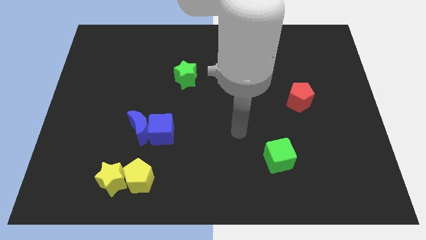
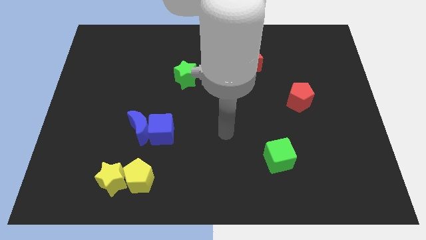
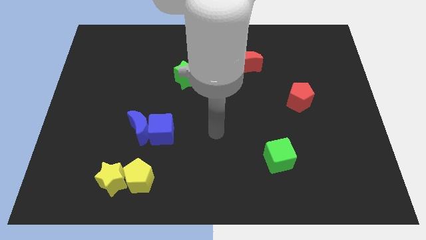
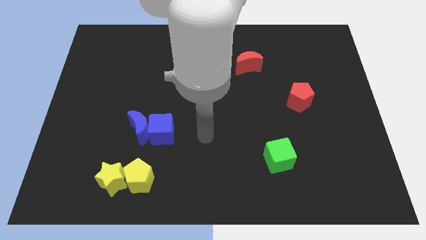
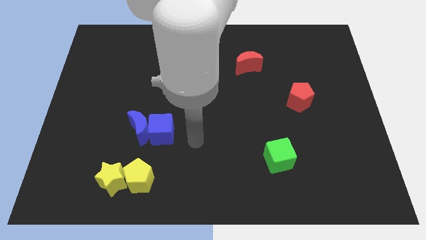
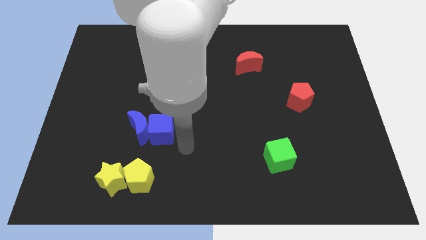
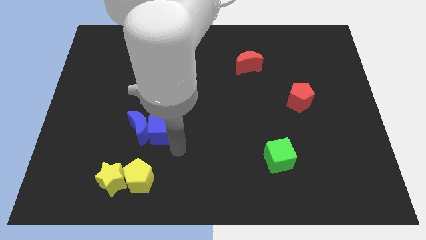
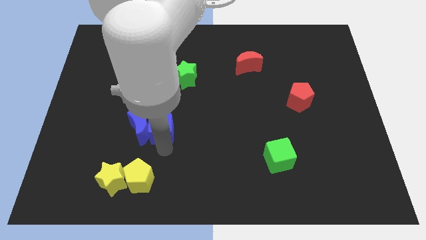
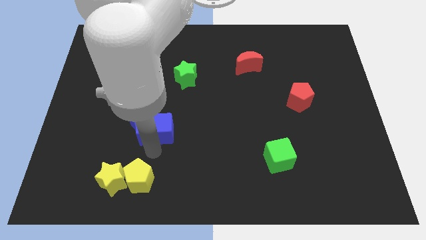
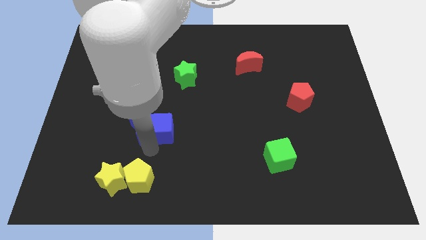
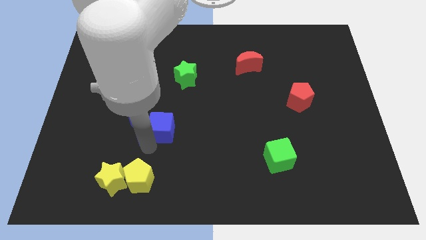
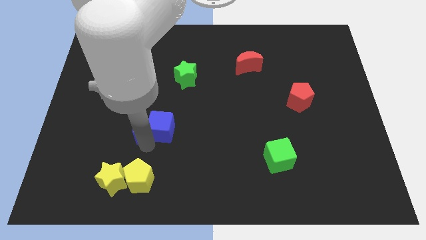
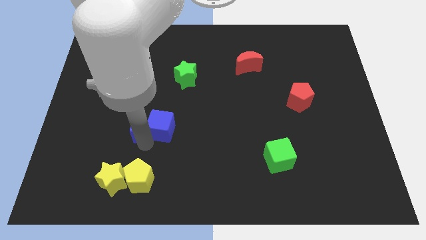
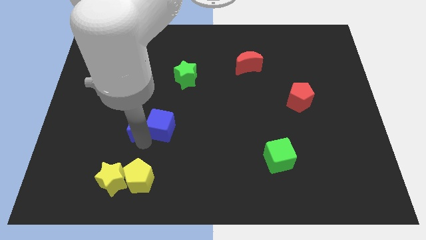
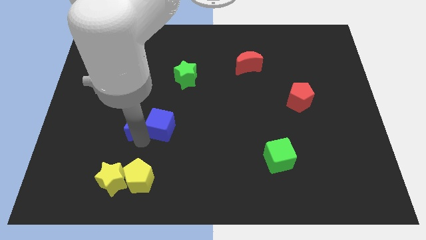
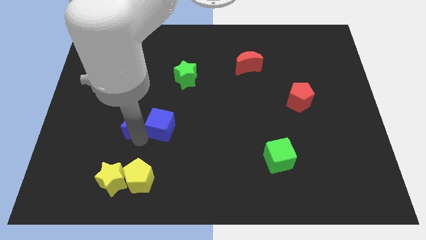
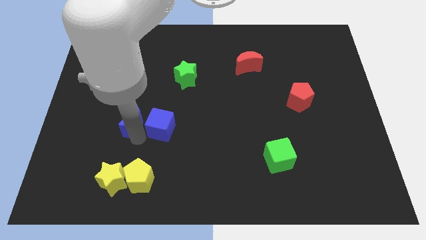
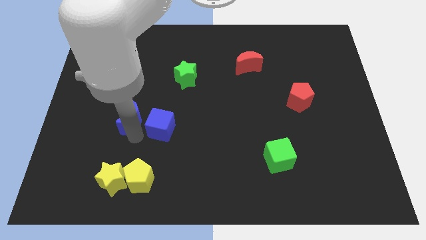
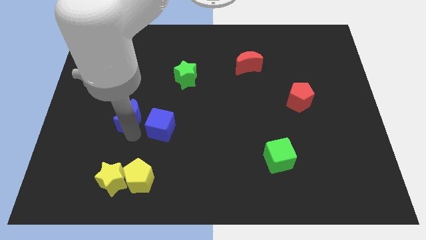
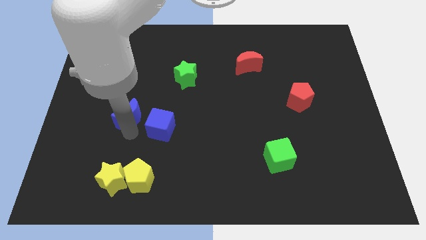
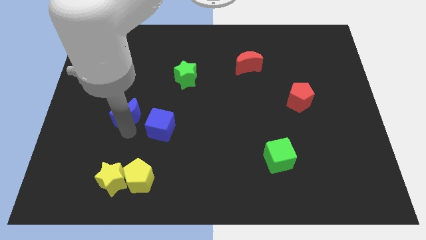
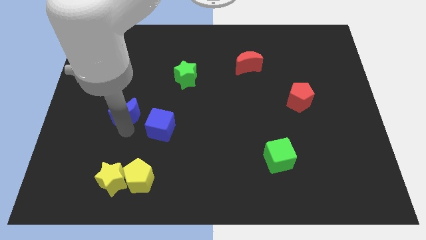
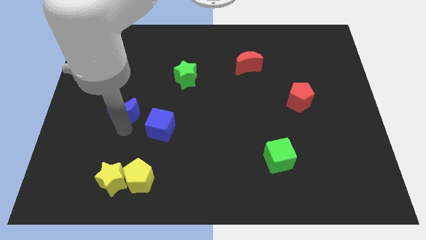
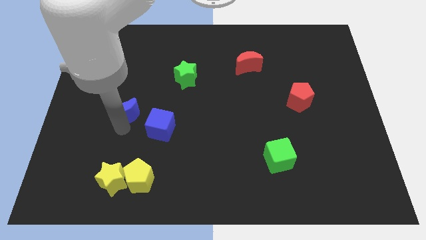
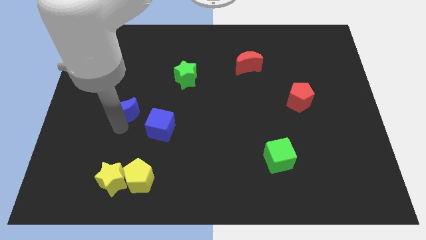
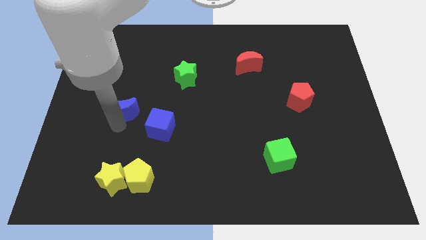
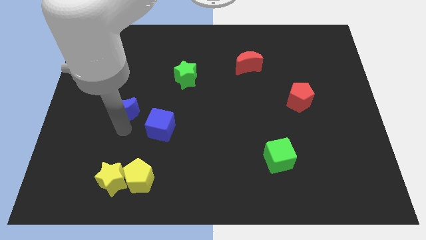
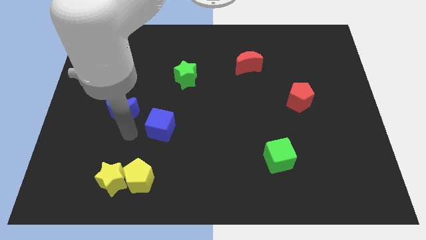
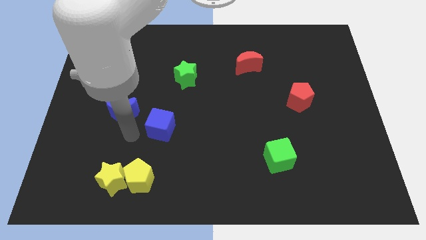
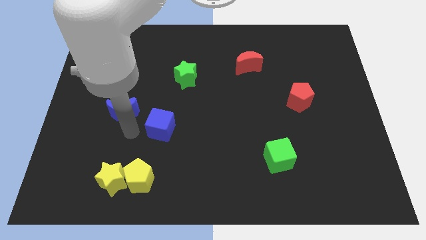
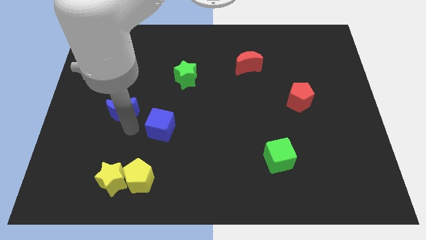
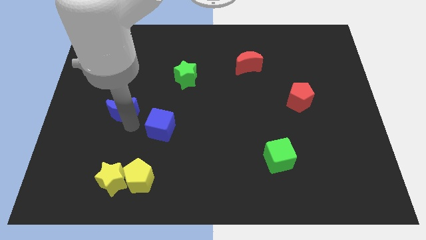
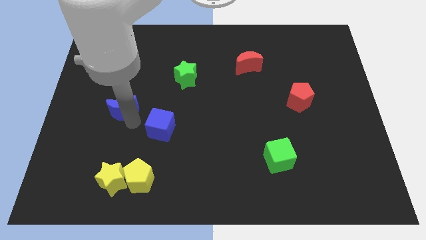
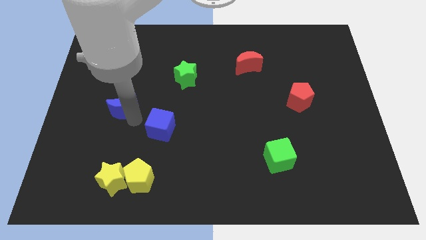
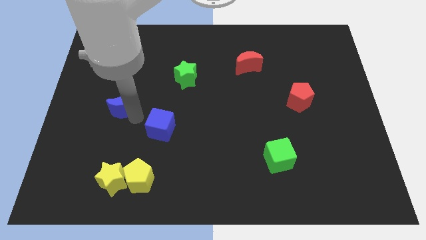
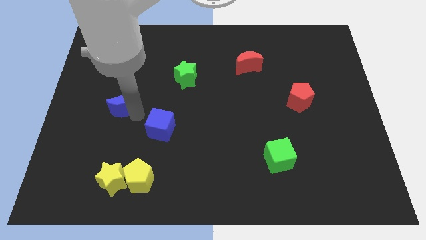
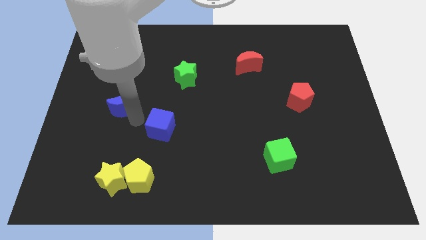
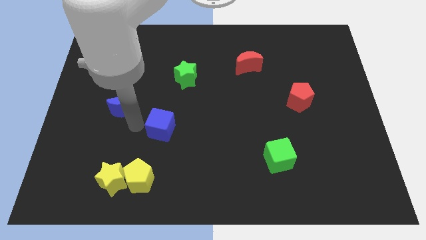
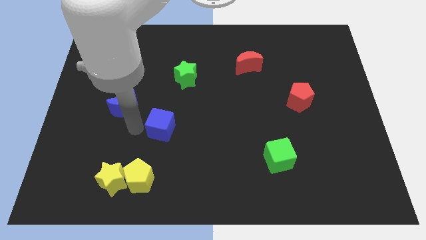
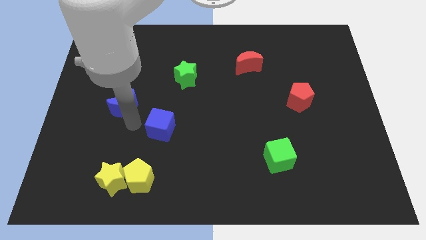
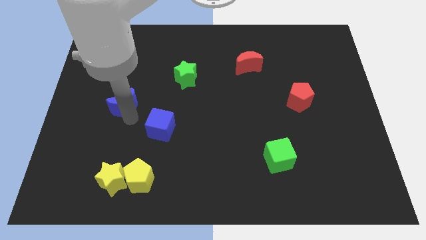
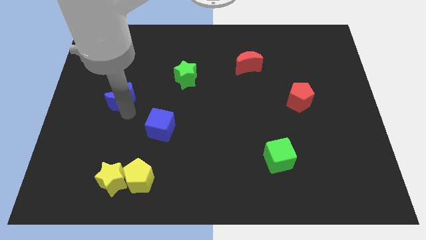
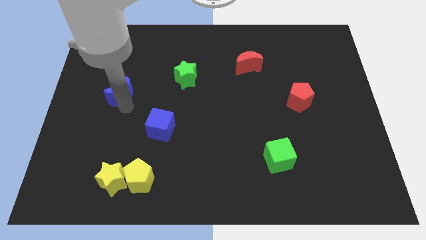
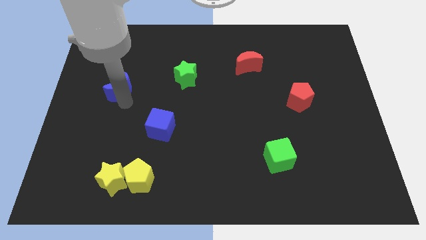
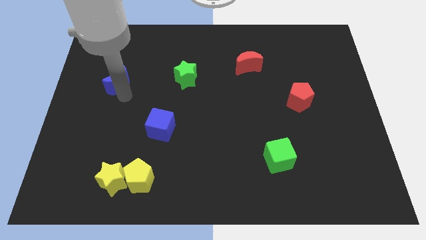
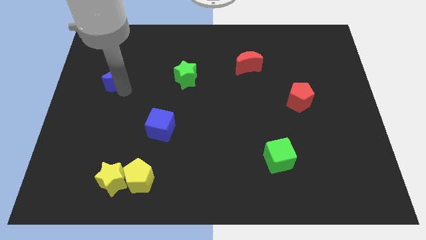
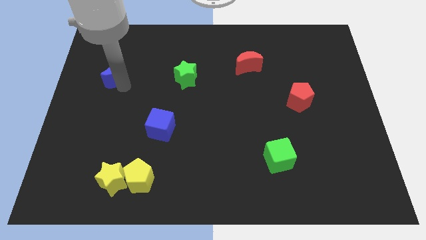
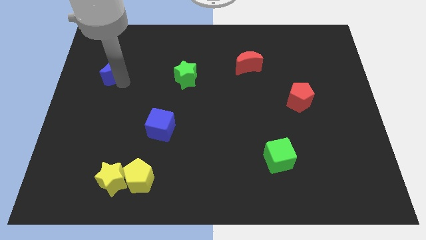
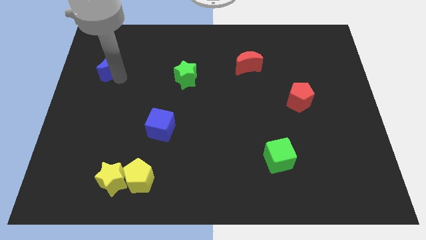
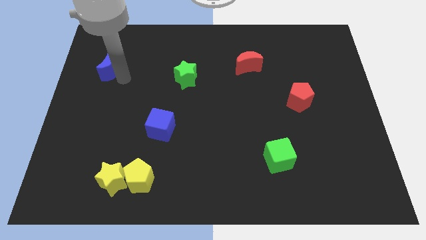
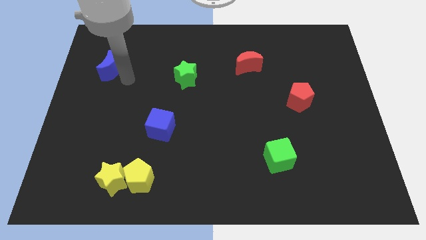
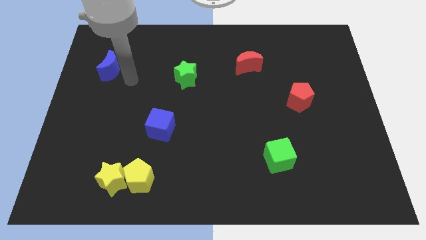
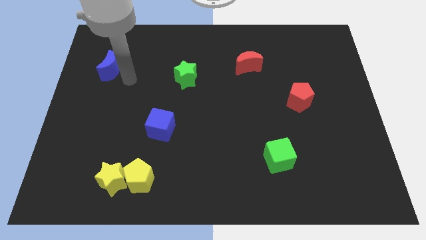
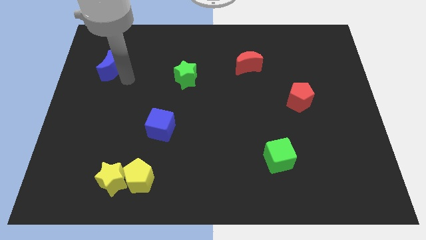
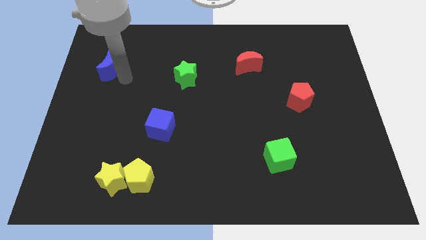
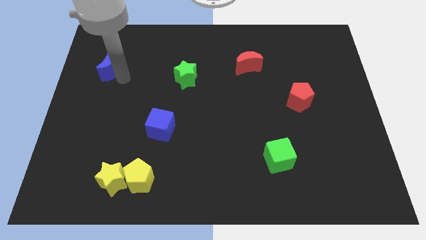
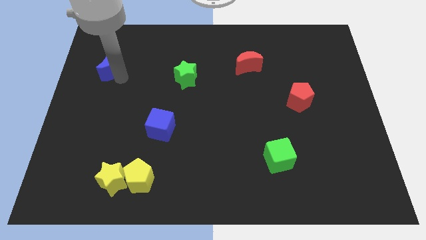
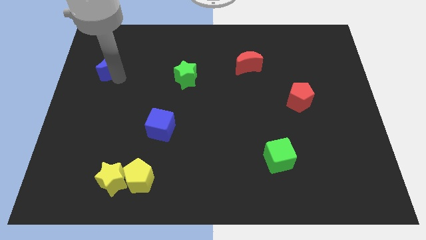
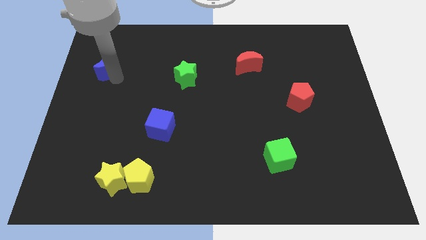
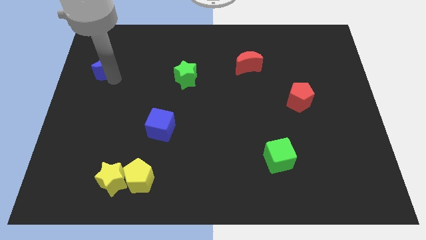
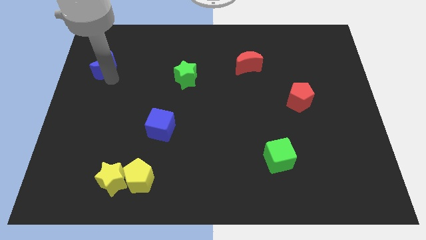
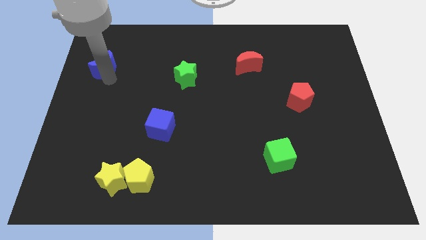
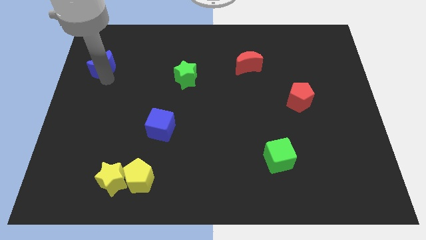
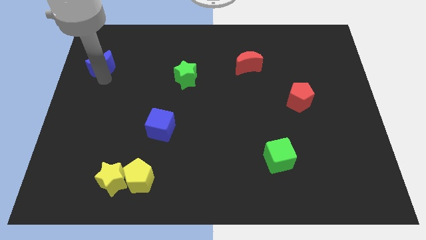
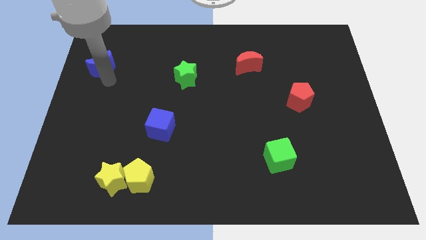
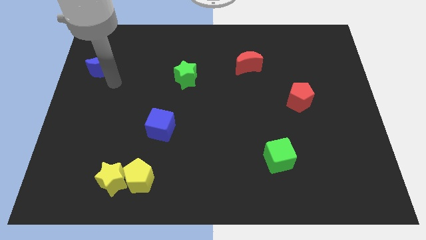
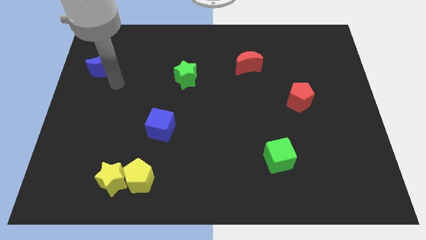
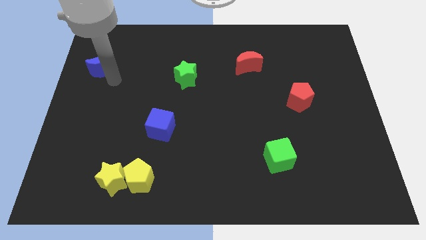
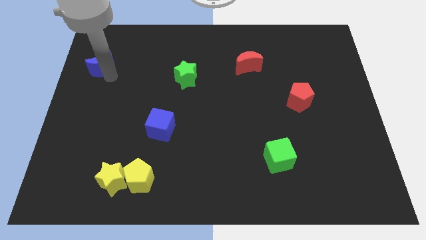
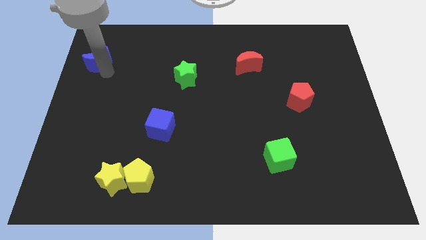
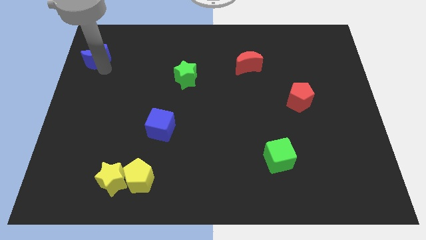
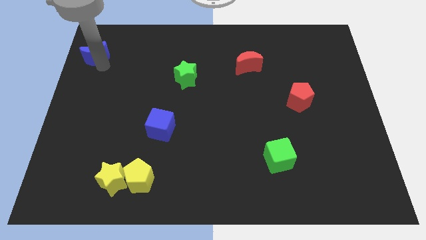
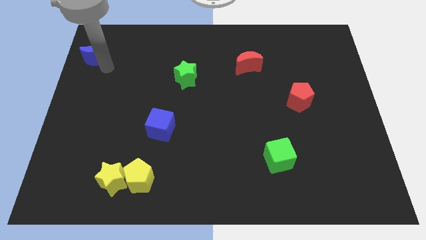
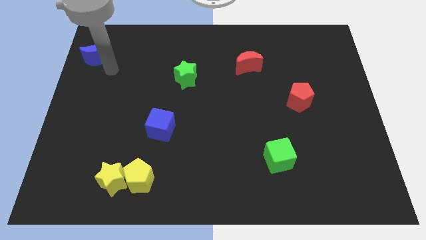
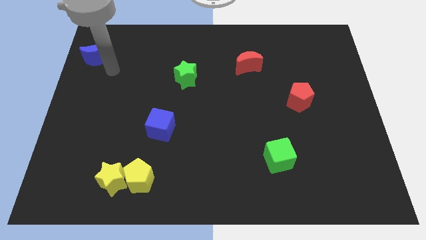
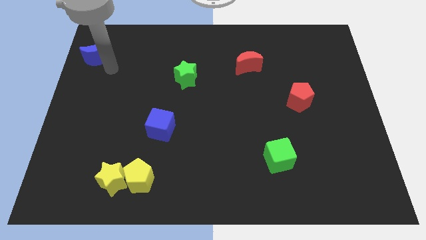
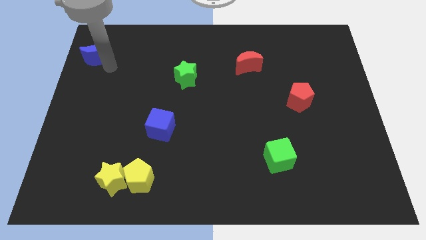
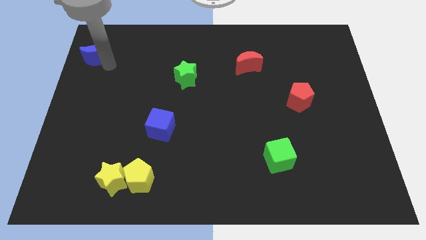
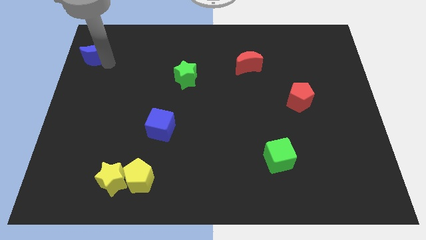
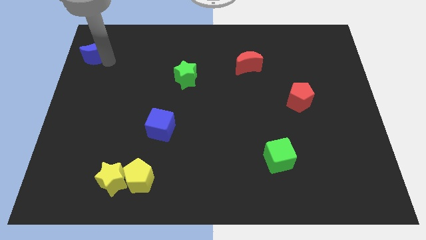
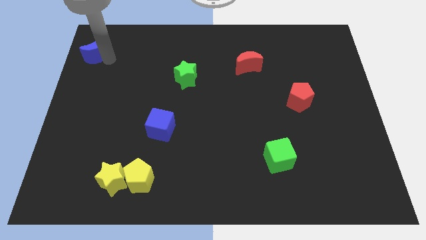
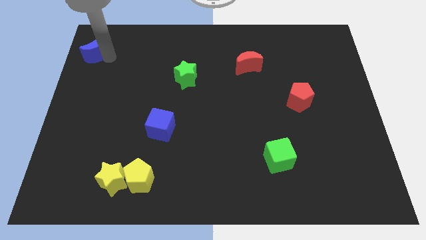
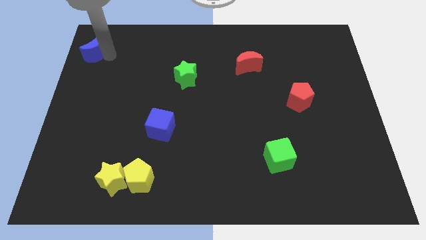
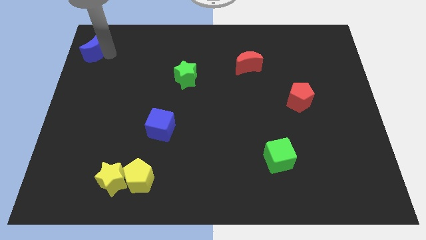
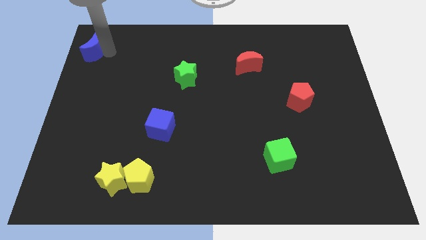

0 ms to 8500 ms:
move the blue moon to the top left of the board
